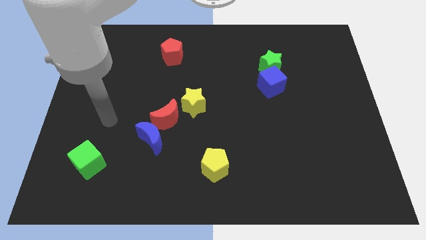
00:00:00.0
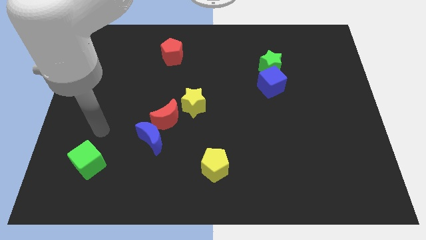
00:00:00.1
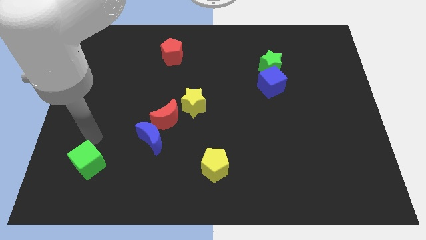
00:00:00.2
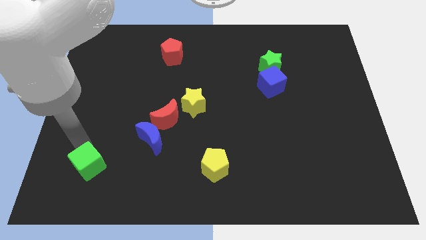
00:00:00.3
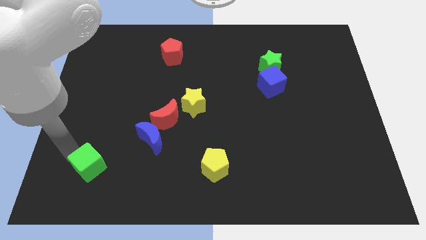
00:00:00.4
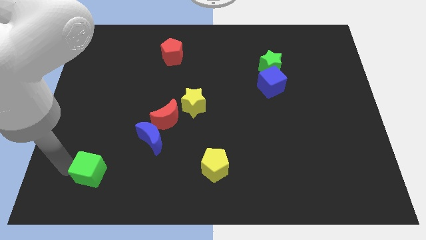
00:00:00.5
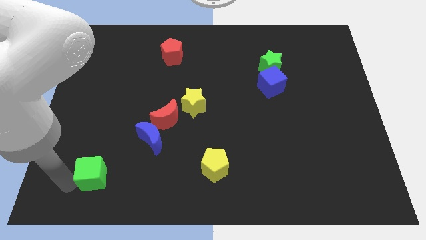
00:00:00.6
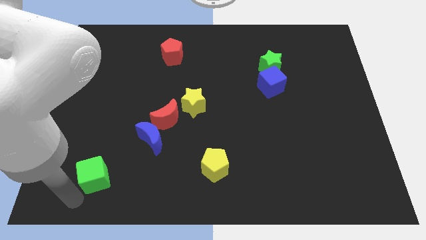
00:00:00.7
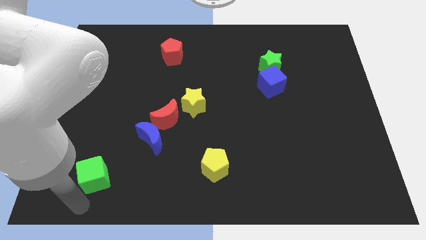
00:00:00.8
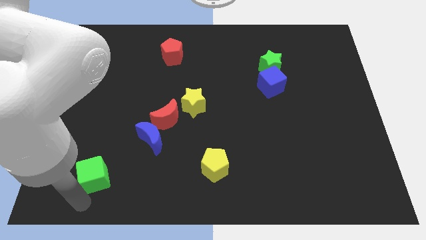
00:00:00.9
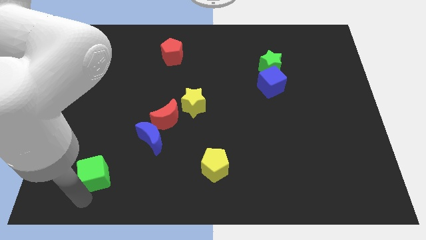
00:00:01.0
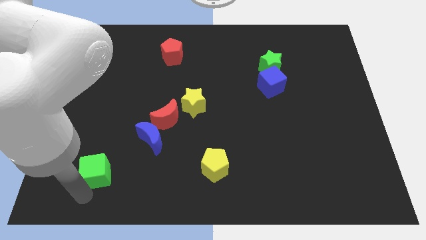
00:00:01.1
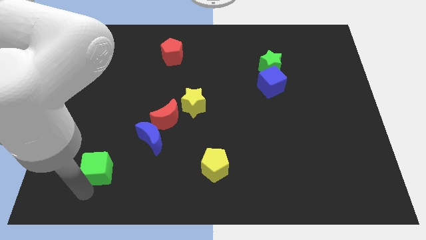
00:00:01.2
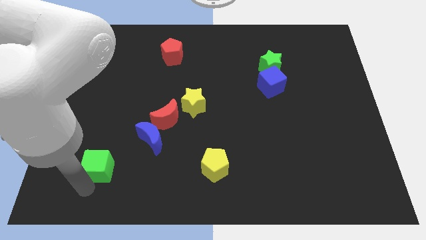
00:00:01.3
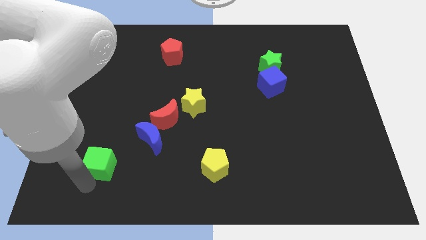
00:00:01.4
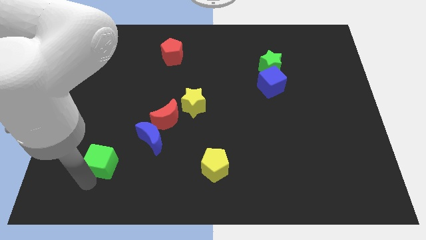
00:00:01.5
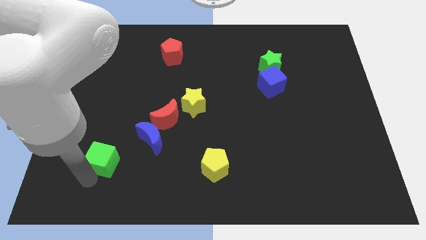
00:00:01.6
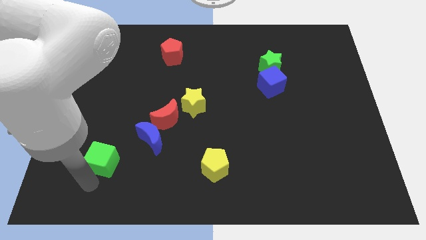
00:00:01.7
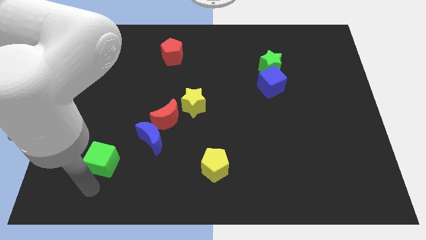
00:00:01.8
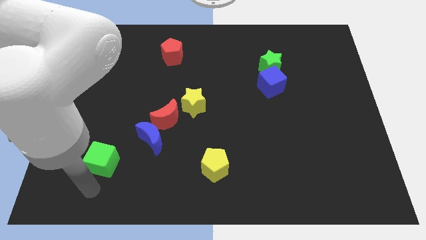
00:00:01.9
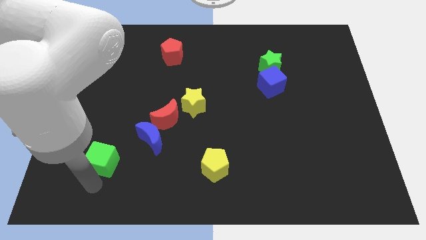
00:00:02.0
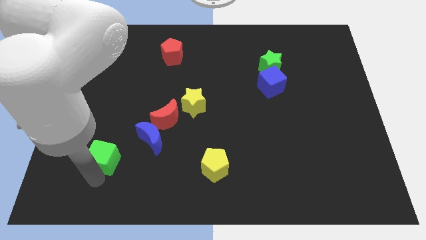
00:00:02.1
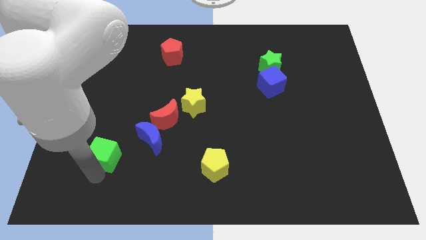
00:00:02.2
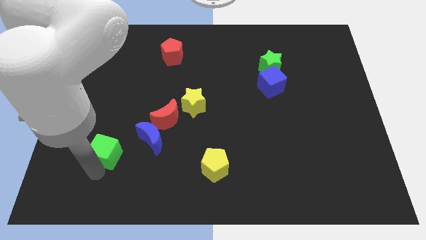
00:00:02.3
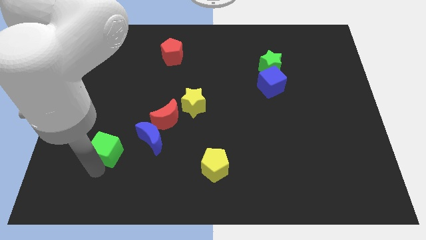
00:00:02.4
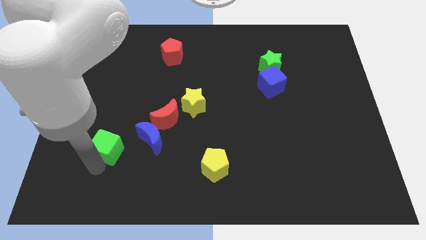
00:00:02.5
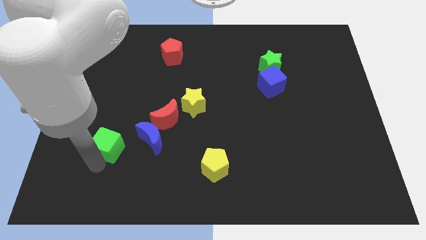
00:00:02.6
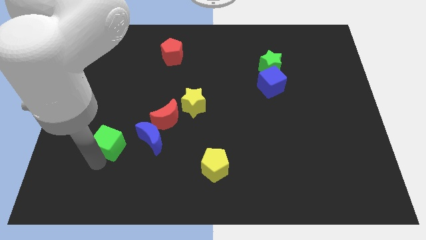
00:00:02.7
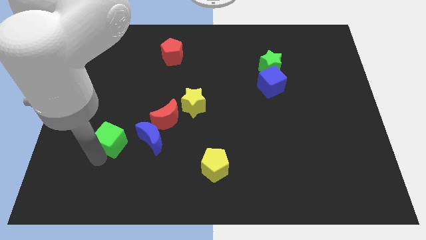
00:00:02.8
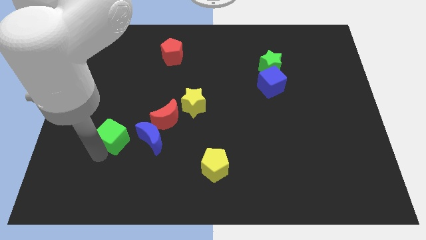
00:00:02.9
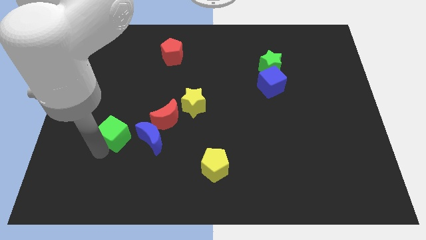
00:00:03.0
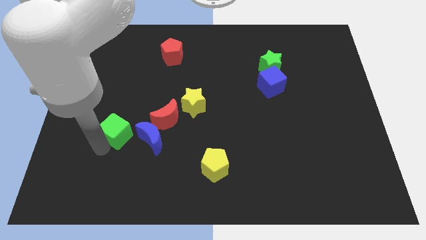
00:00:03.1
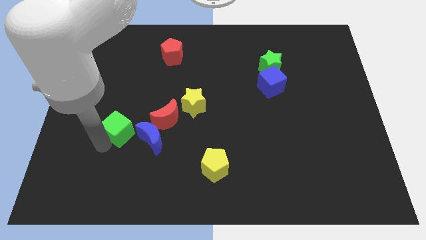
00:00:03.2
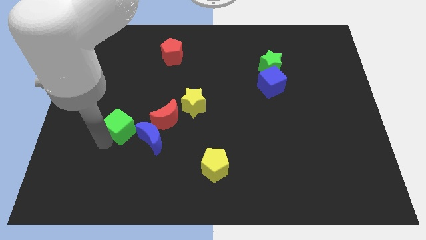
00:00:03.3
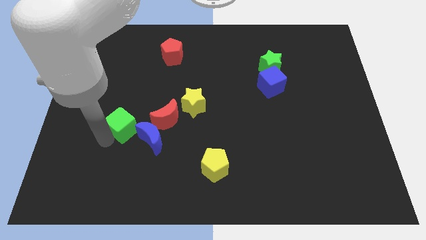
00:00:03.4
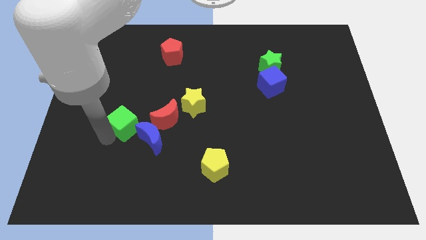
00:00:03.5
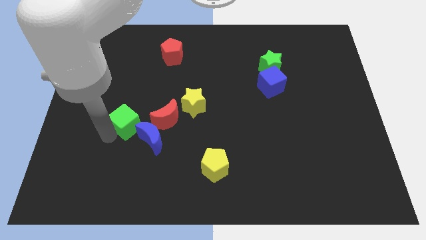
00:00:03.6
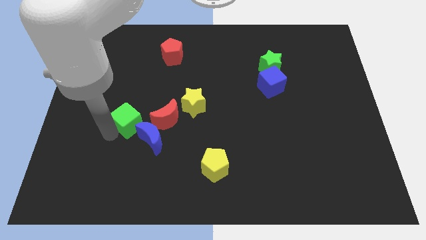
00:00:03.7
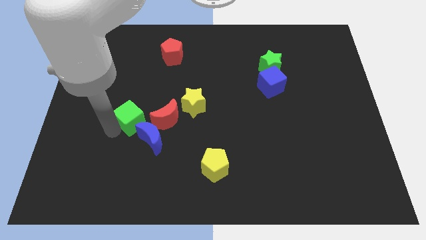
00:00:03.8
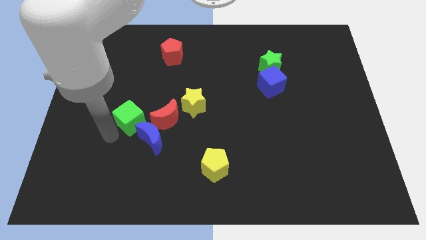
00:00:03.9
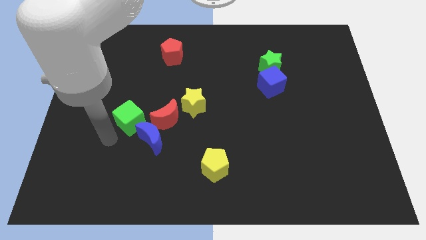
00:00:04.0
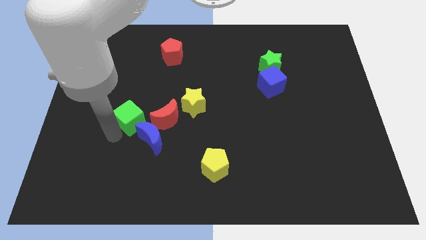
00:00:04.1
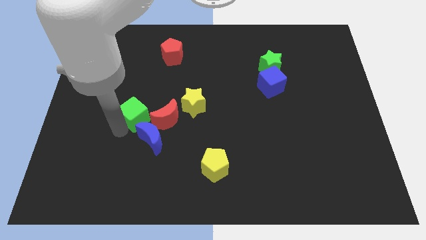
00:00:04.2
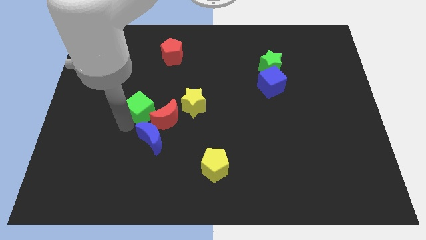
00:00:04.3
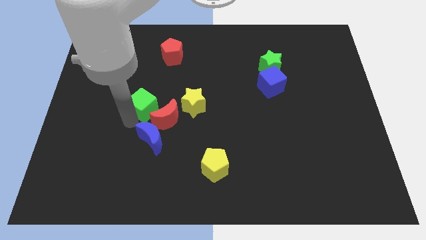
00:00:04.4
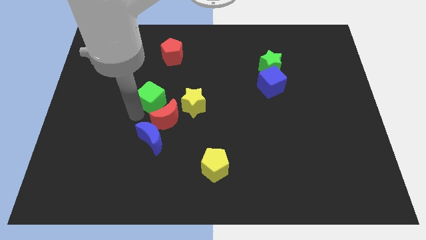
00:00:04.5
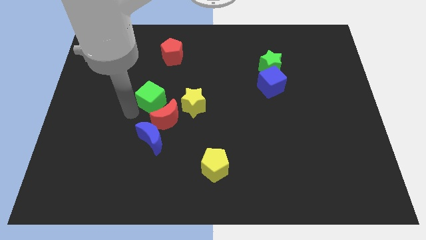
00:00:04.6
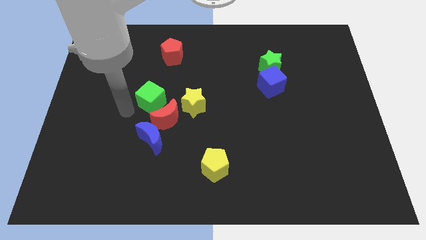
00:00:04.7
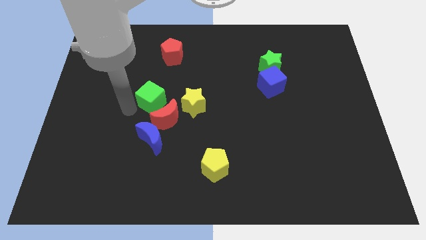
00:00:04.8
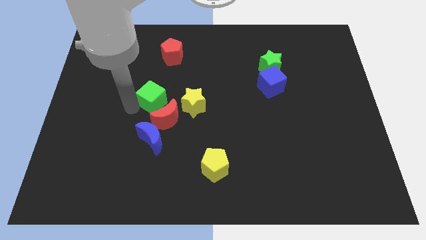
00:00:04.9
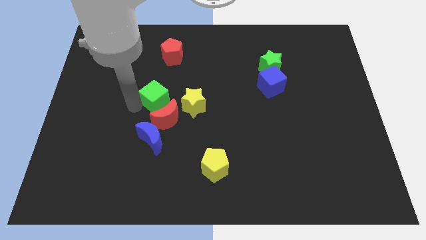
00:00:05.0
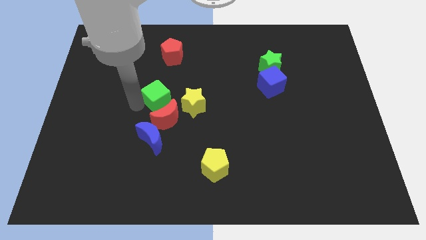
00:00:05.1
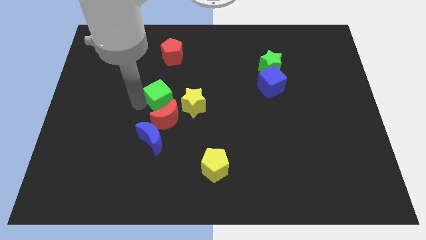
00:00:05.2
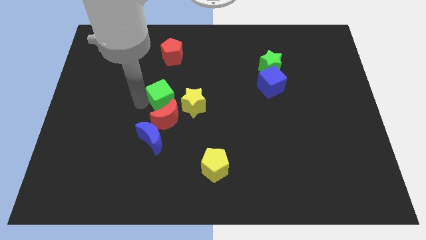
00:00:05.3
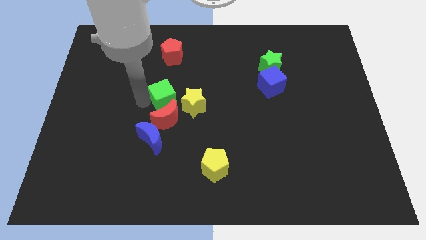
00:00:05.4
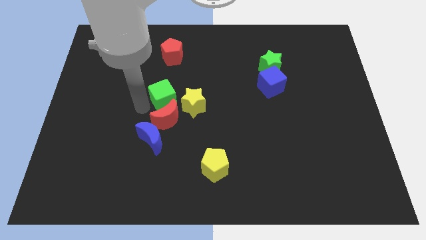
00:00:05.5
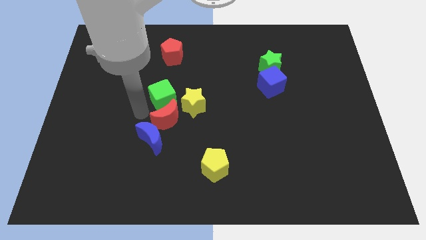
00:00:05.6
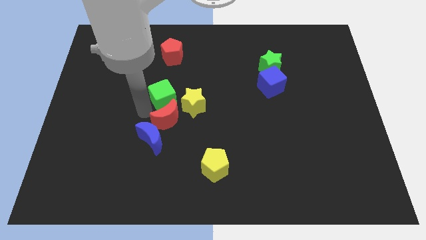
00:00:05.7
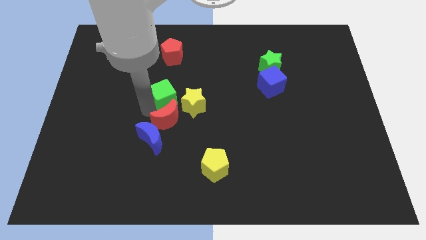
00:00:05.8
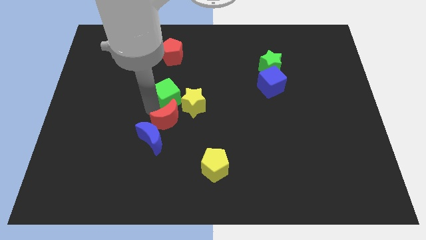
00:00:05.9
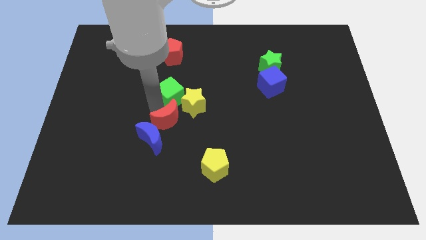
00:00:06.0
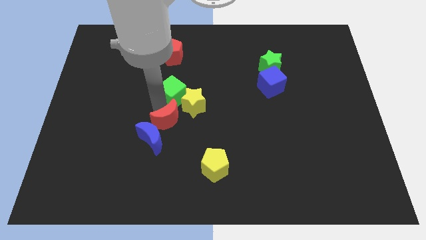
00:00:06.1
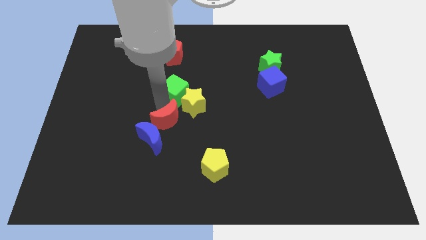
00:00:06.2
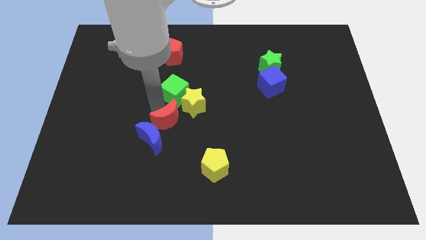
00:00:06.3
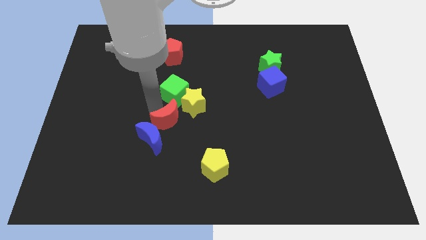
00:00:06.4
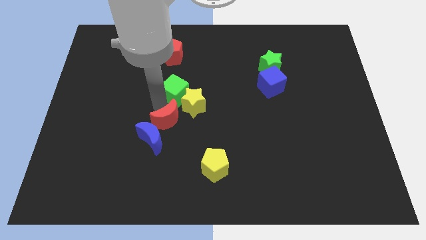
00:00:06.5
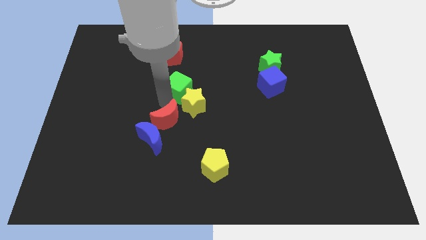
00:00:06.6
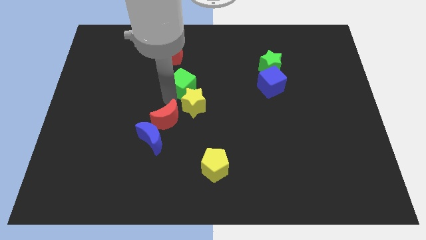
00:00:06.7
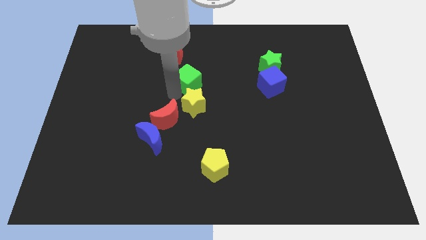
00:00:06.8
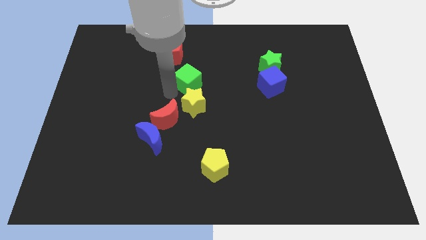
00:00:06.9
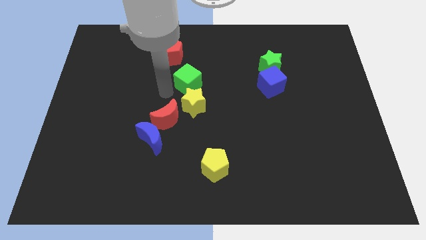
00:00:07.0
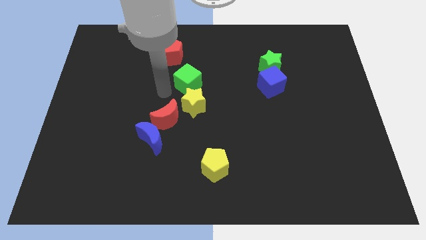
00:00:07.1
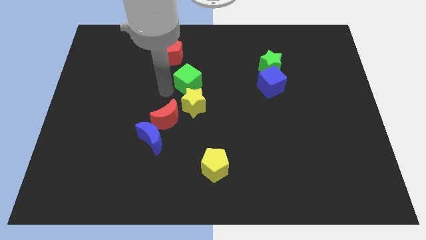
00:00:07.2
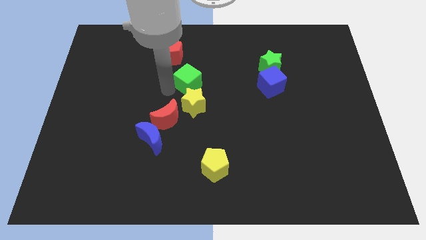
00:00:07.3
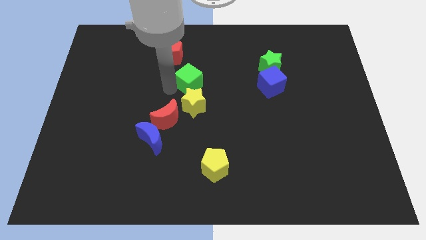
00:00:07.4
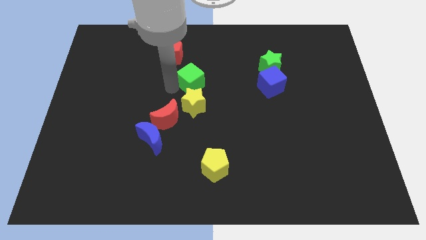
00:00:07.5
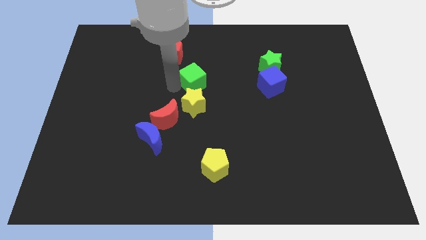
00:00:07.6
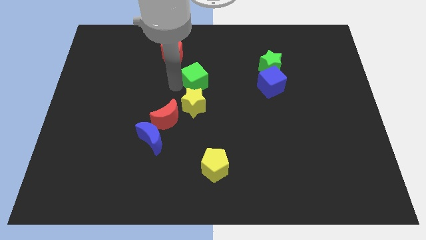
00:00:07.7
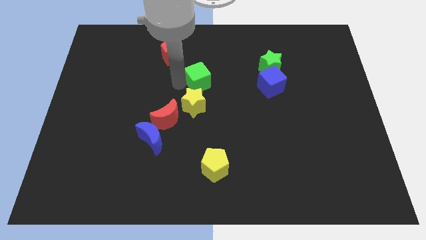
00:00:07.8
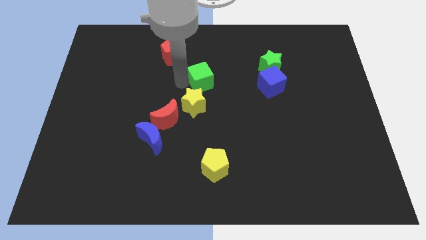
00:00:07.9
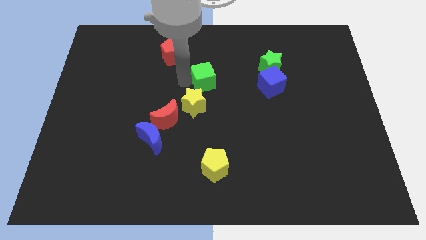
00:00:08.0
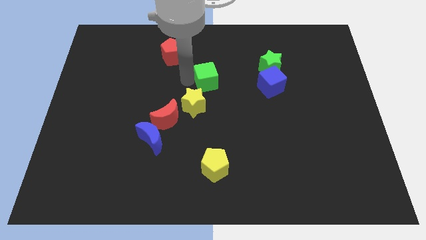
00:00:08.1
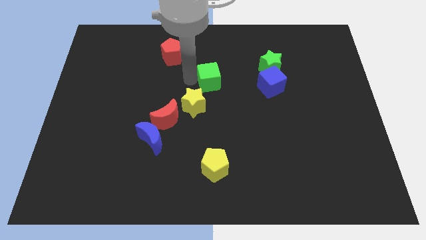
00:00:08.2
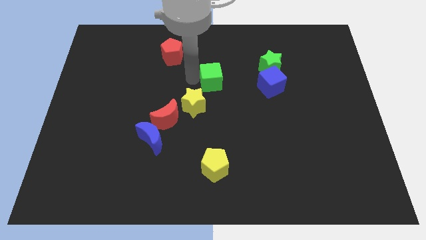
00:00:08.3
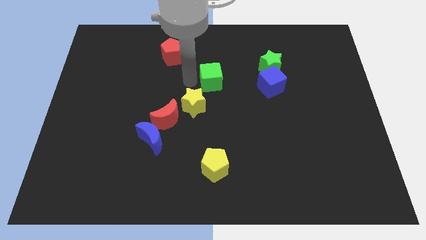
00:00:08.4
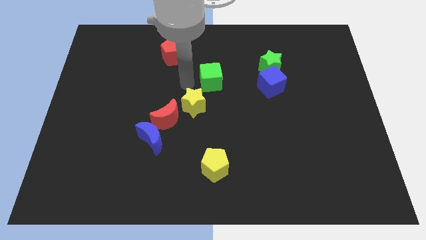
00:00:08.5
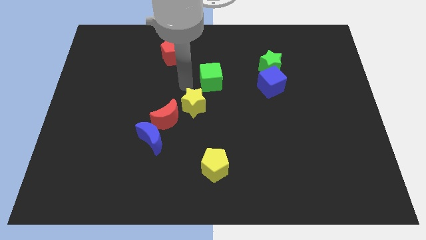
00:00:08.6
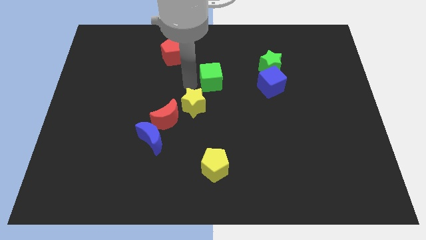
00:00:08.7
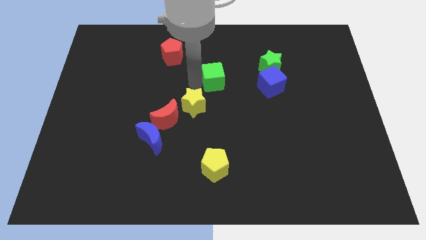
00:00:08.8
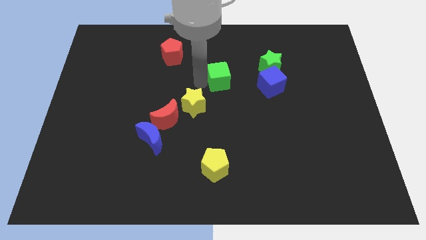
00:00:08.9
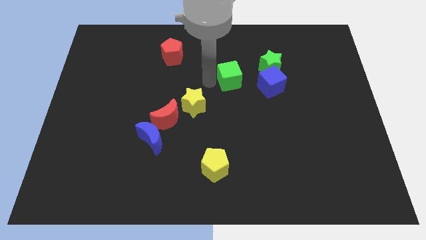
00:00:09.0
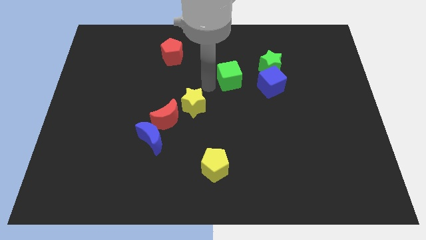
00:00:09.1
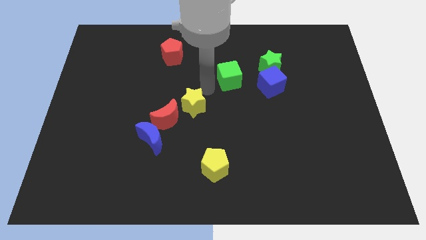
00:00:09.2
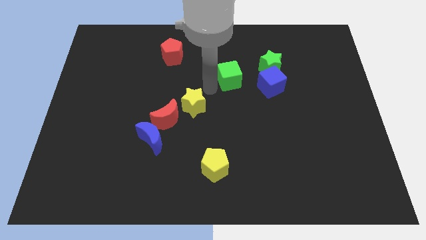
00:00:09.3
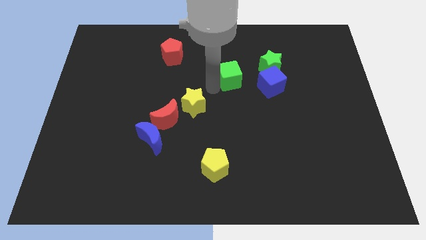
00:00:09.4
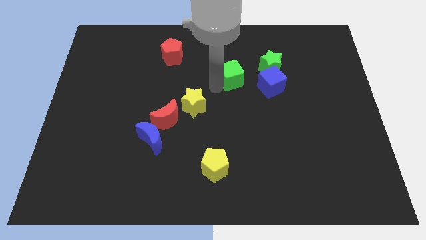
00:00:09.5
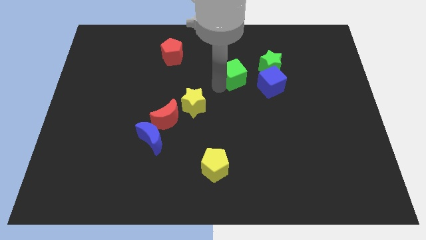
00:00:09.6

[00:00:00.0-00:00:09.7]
put the green cube to the top left side of the blue cube
